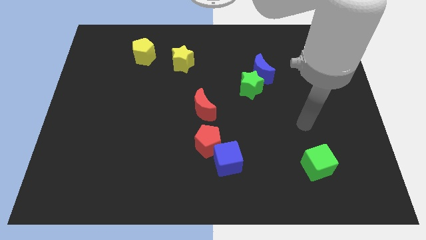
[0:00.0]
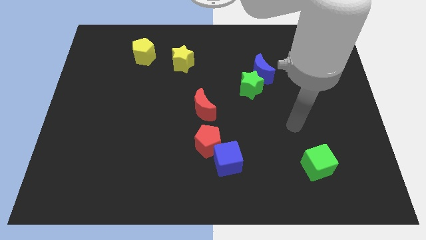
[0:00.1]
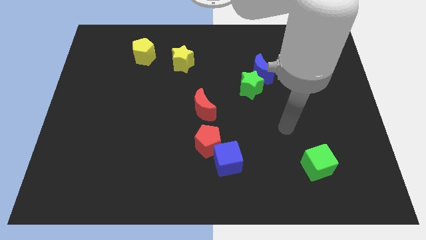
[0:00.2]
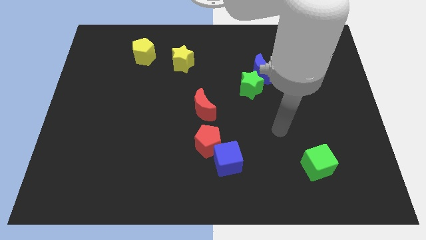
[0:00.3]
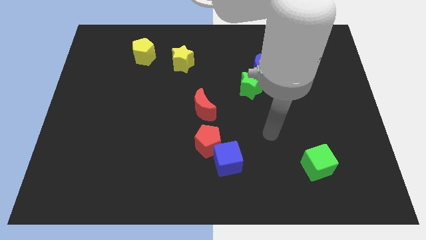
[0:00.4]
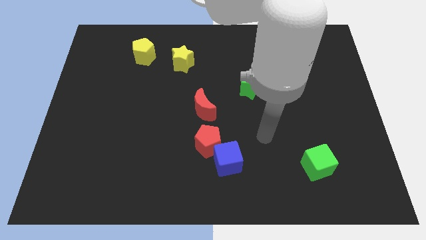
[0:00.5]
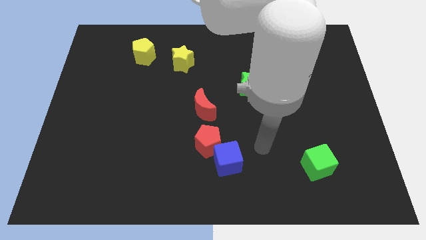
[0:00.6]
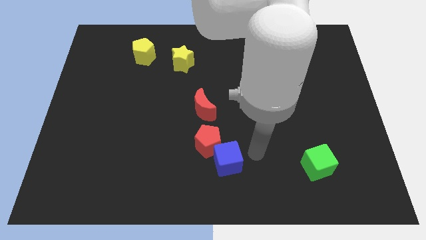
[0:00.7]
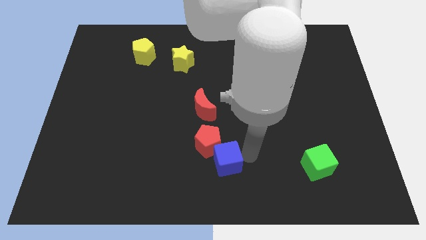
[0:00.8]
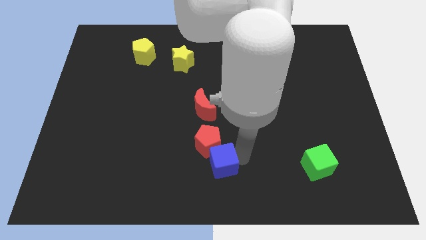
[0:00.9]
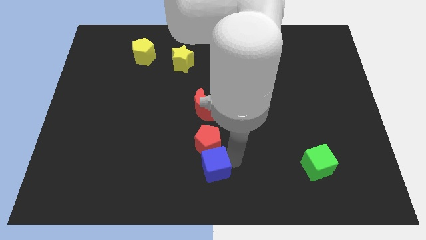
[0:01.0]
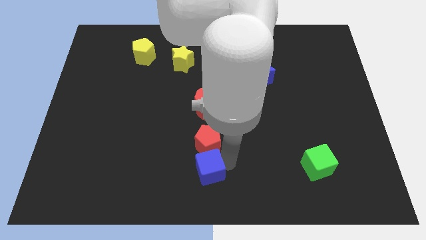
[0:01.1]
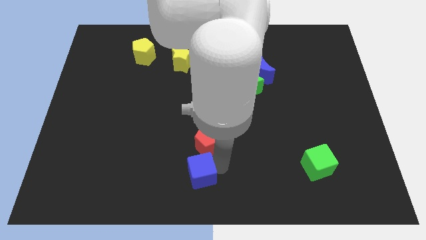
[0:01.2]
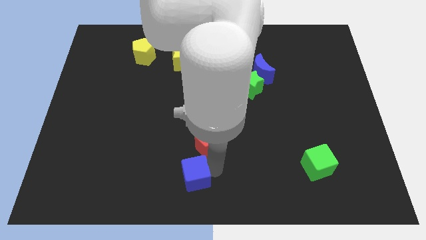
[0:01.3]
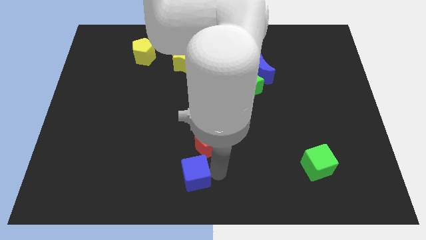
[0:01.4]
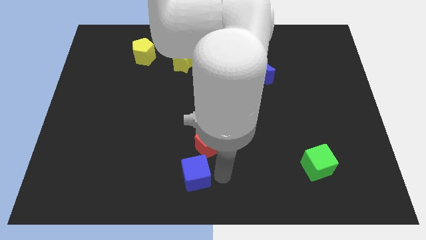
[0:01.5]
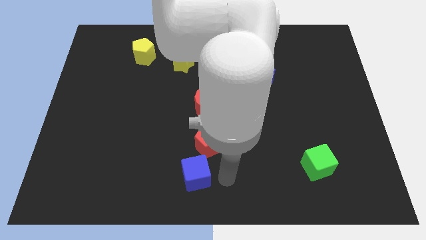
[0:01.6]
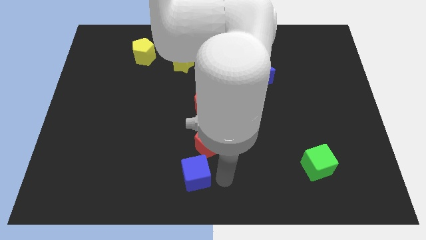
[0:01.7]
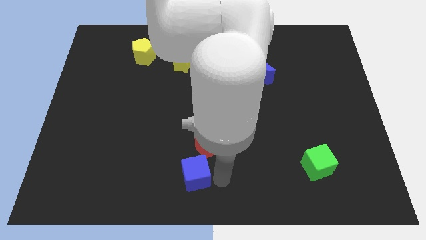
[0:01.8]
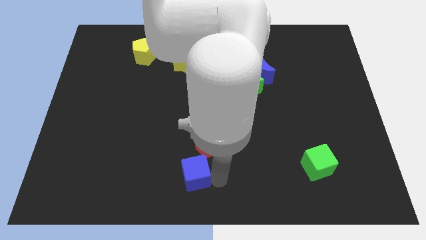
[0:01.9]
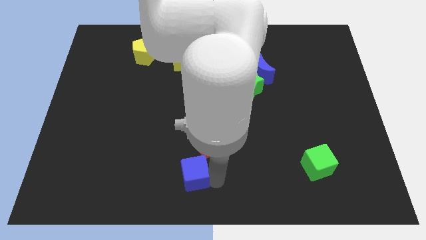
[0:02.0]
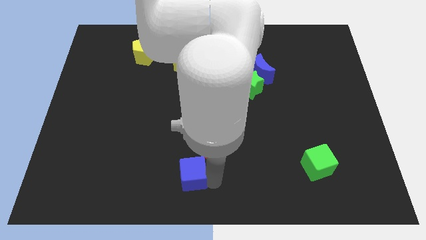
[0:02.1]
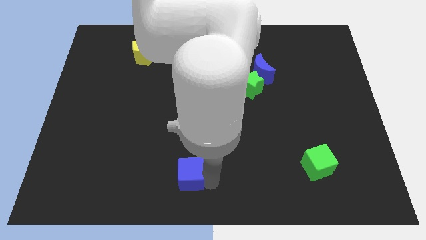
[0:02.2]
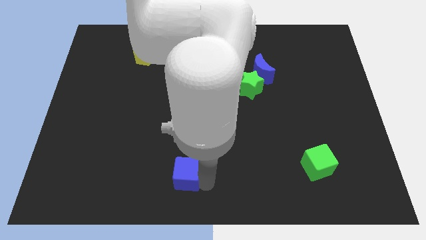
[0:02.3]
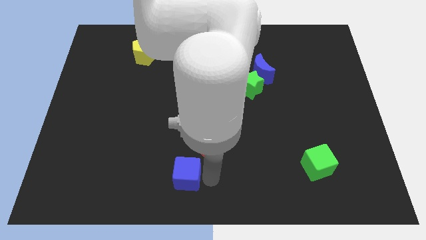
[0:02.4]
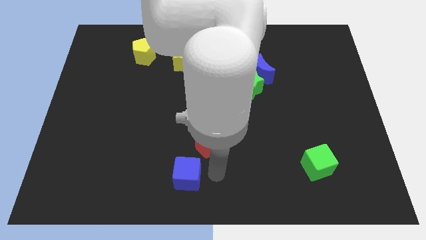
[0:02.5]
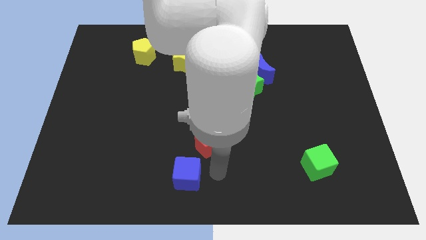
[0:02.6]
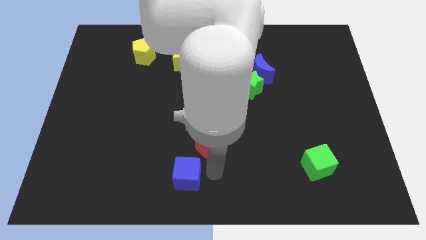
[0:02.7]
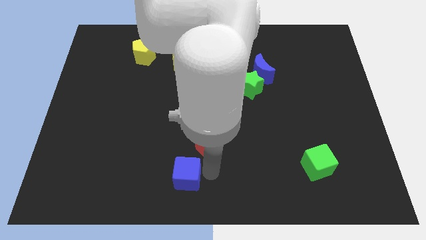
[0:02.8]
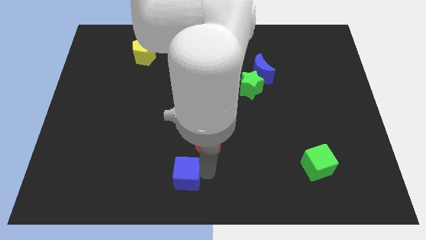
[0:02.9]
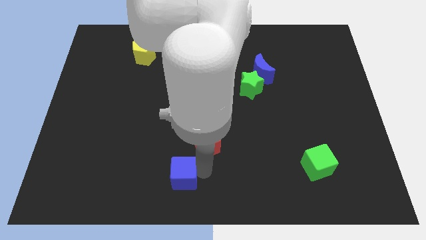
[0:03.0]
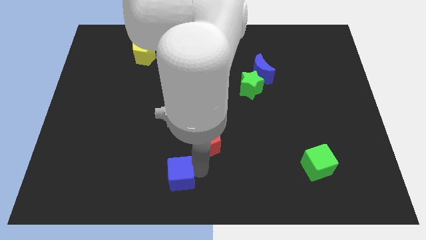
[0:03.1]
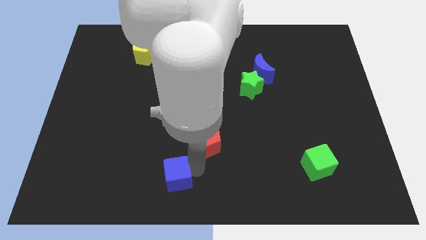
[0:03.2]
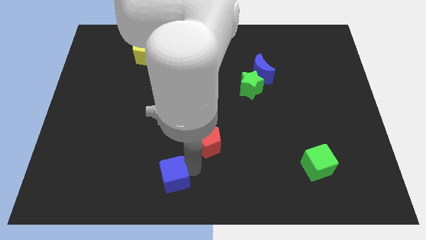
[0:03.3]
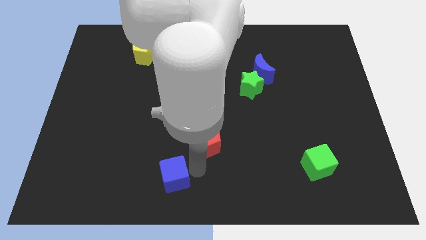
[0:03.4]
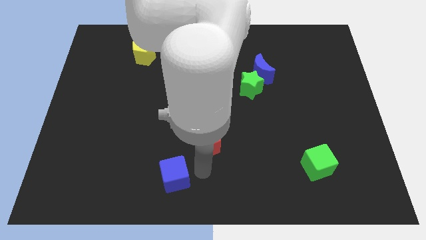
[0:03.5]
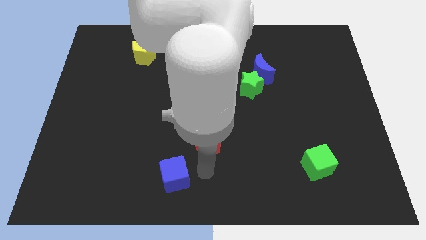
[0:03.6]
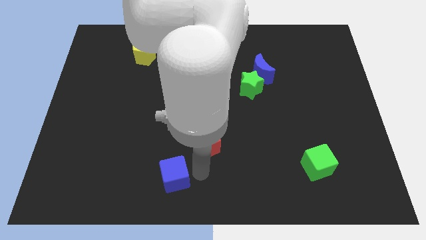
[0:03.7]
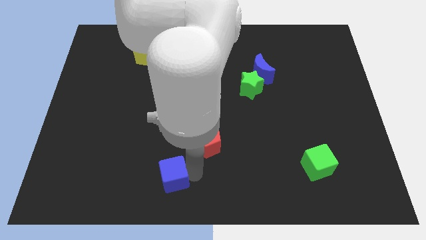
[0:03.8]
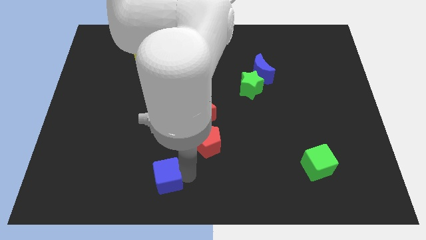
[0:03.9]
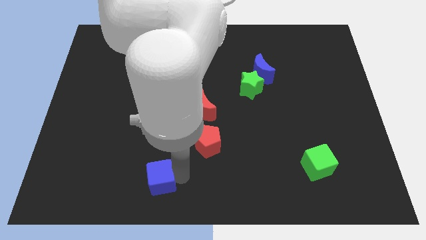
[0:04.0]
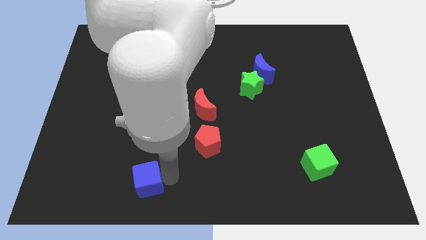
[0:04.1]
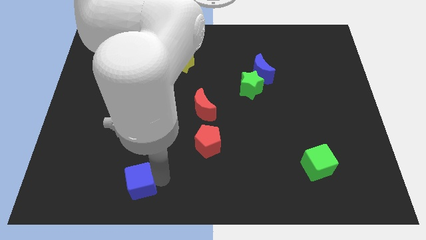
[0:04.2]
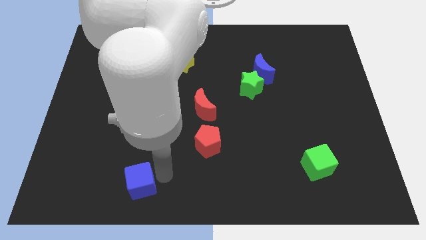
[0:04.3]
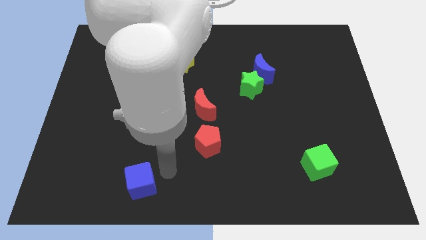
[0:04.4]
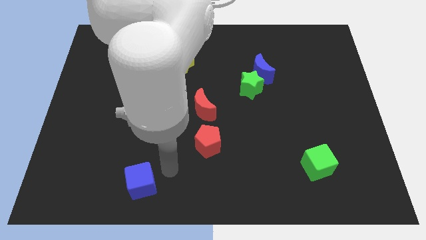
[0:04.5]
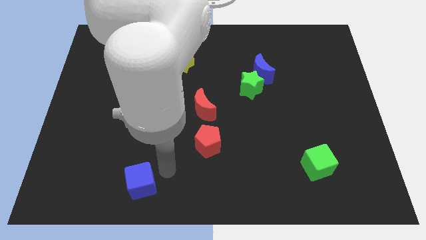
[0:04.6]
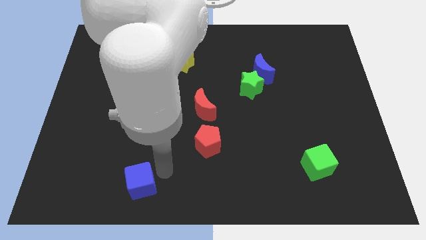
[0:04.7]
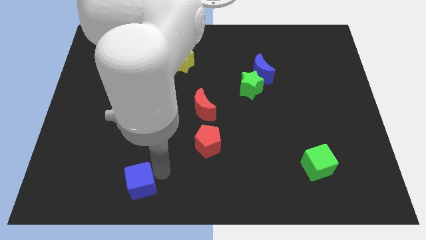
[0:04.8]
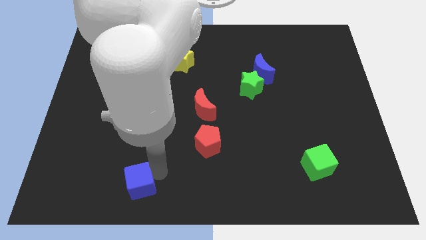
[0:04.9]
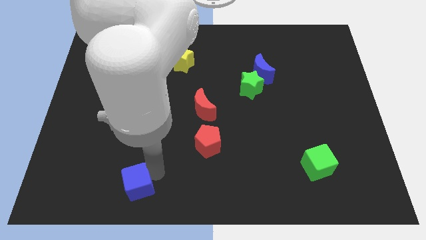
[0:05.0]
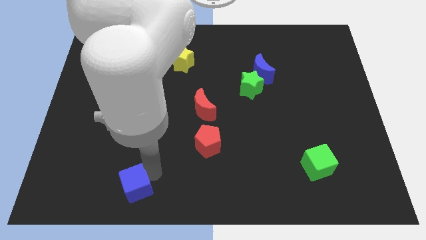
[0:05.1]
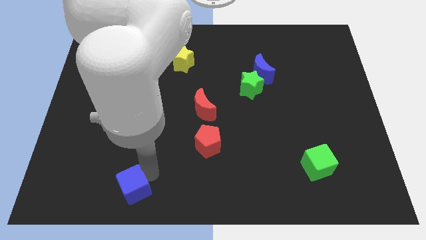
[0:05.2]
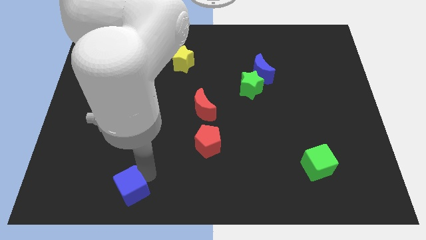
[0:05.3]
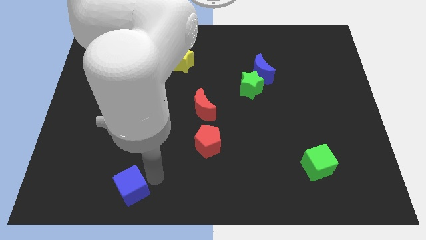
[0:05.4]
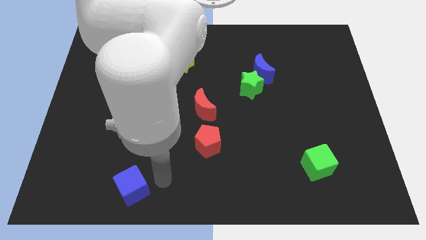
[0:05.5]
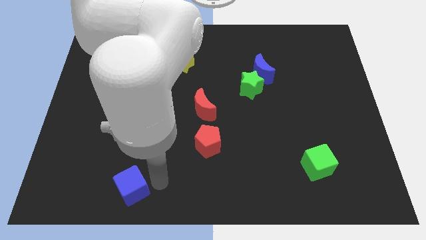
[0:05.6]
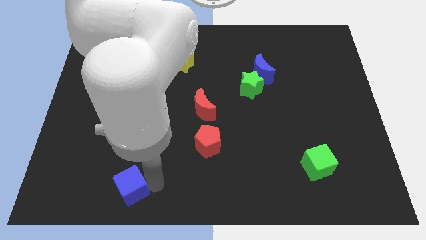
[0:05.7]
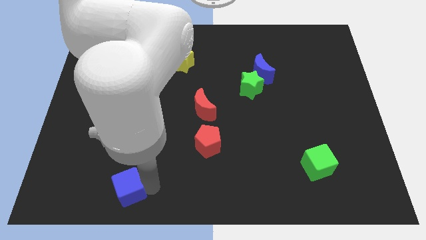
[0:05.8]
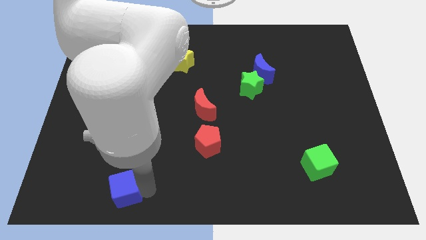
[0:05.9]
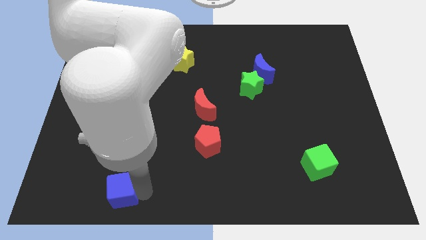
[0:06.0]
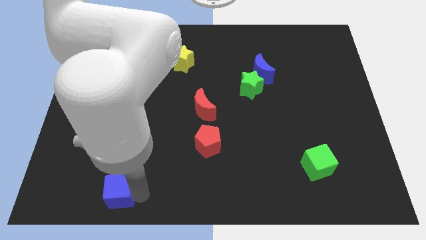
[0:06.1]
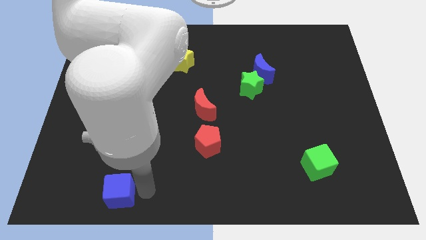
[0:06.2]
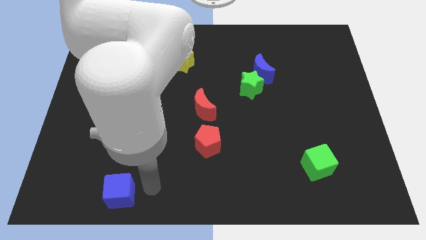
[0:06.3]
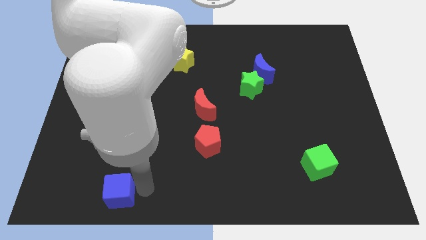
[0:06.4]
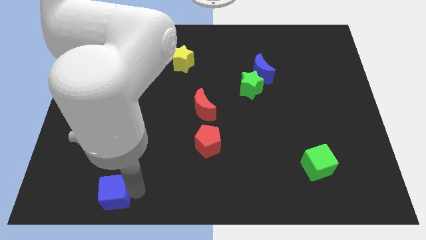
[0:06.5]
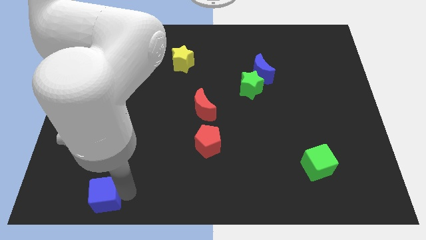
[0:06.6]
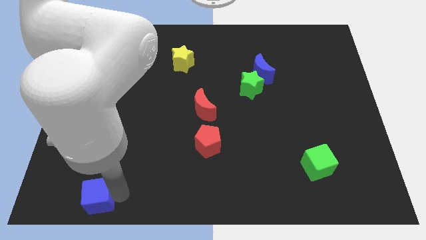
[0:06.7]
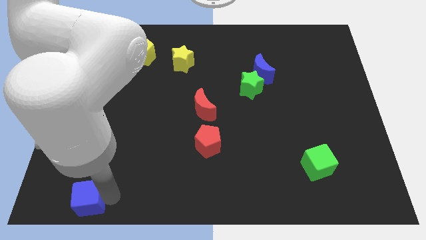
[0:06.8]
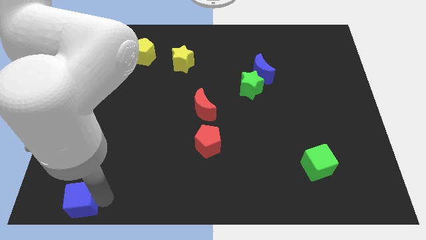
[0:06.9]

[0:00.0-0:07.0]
push the blue cube to the bottom left corner
